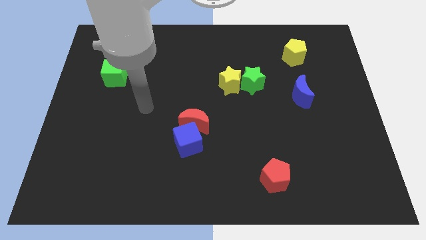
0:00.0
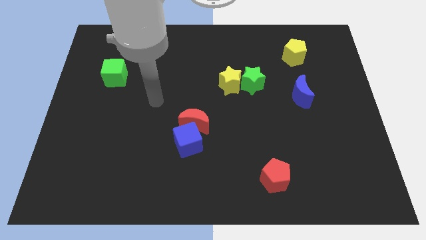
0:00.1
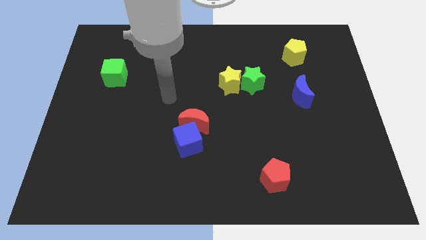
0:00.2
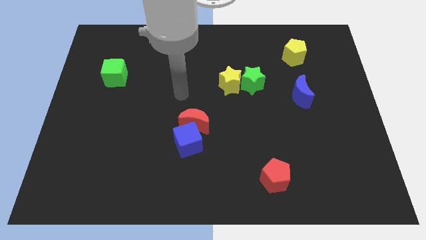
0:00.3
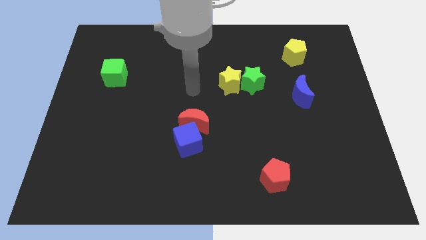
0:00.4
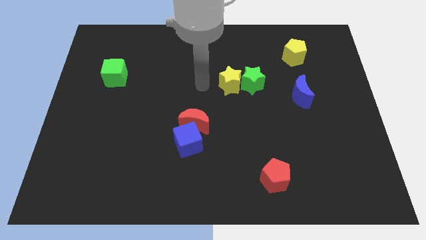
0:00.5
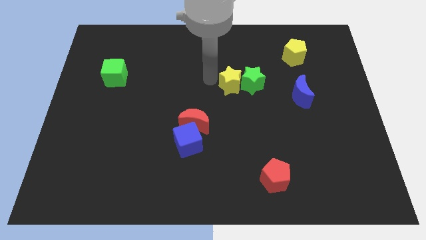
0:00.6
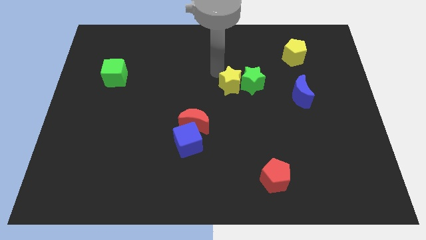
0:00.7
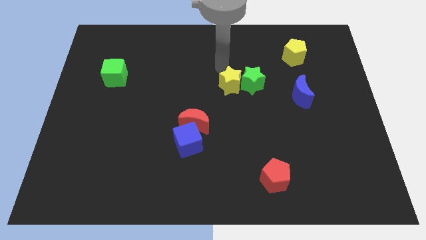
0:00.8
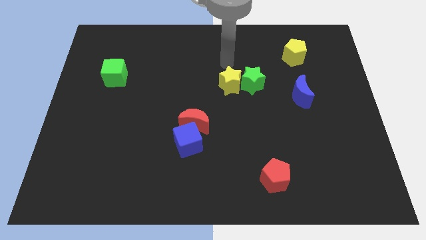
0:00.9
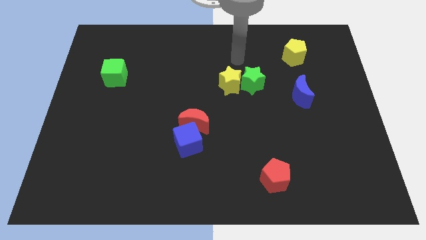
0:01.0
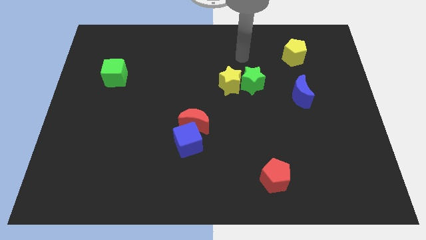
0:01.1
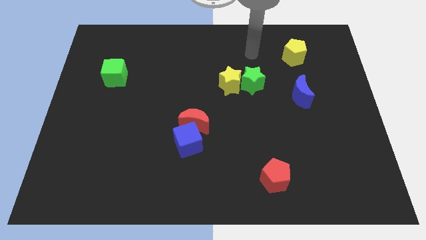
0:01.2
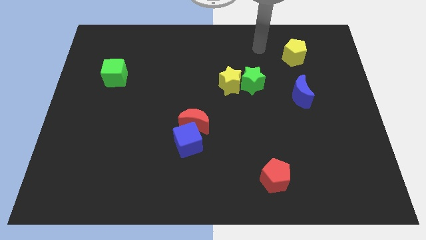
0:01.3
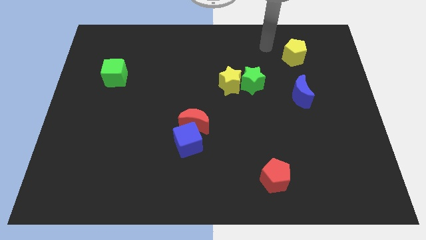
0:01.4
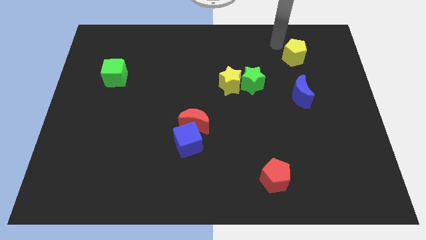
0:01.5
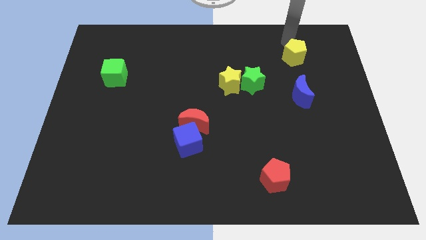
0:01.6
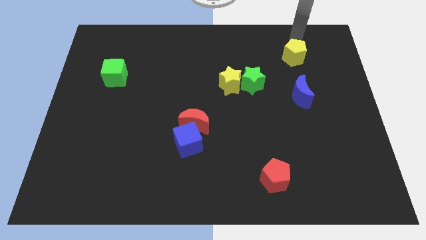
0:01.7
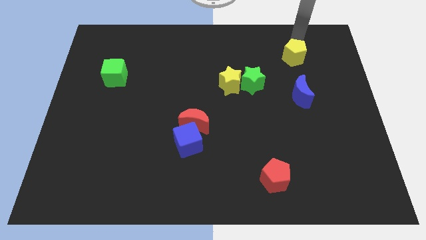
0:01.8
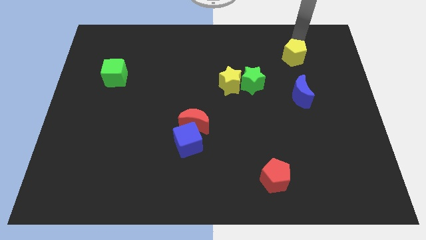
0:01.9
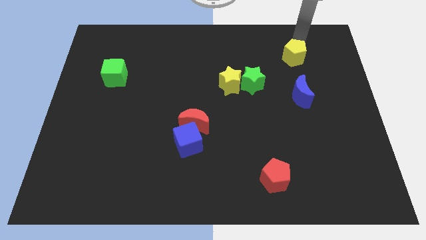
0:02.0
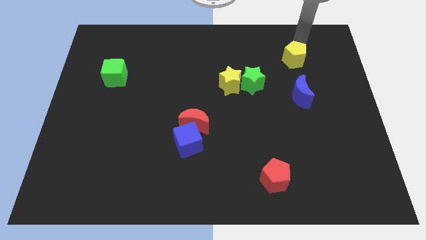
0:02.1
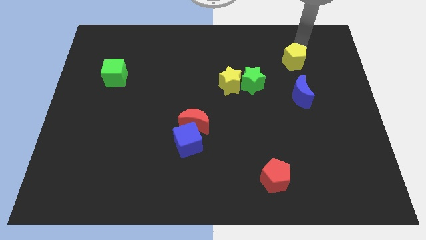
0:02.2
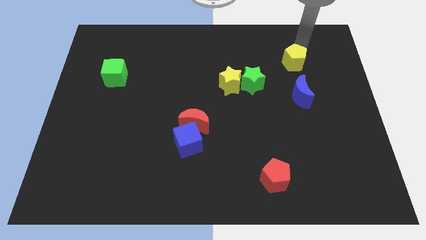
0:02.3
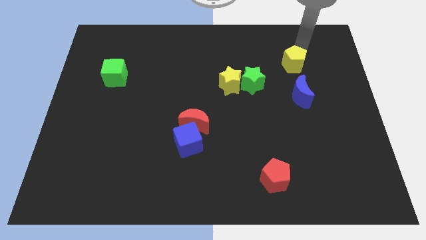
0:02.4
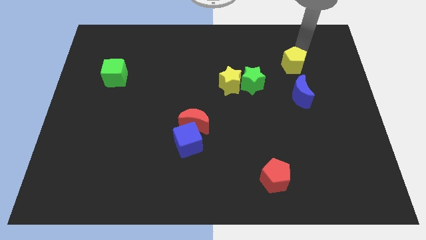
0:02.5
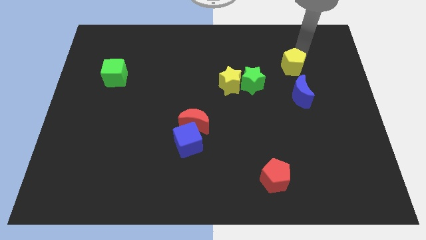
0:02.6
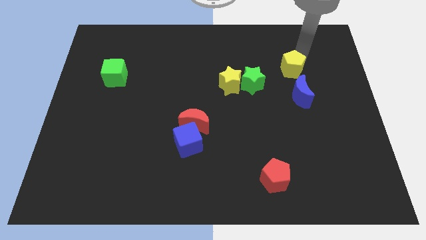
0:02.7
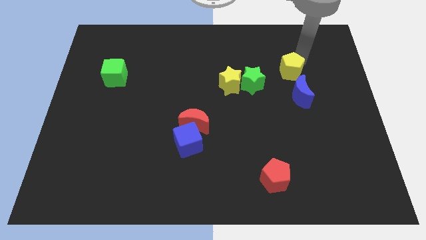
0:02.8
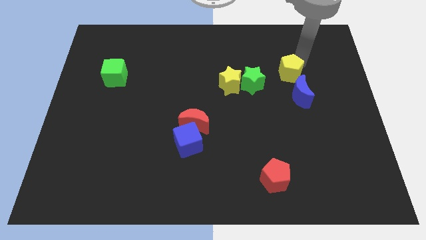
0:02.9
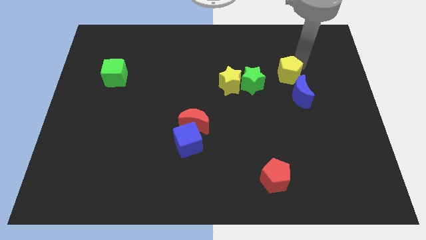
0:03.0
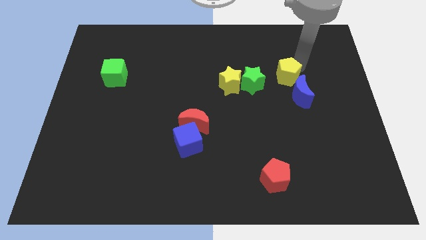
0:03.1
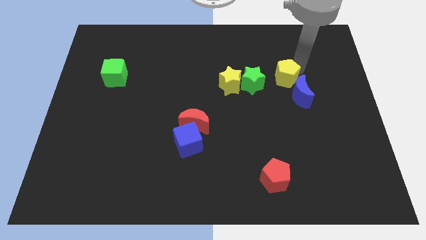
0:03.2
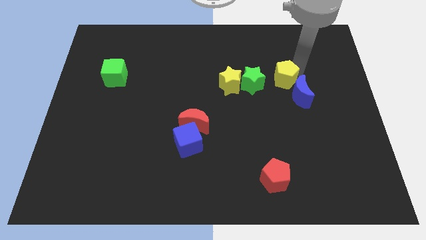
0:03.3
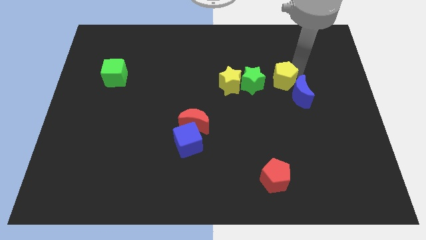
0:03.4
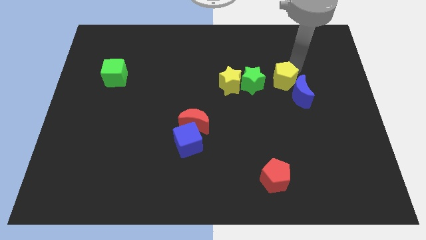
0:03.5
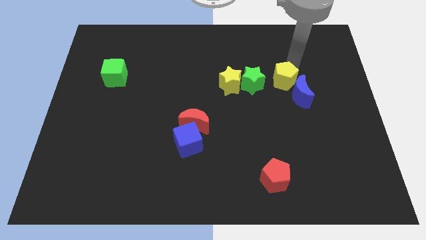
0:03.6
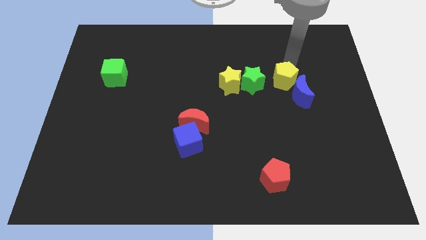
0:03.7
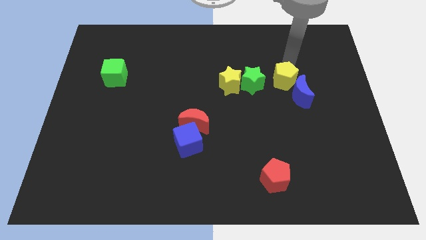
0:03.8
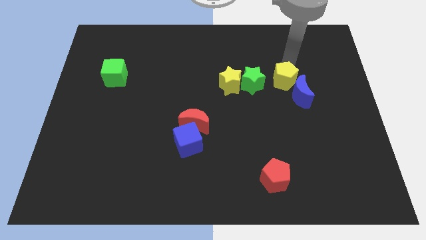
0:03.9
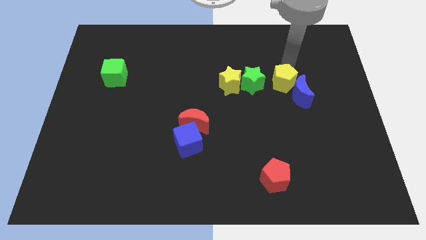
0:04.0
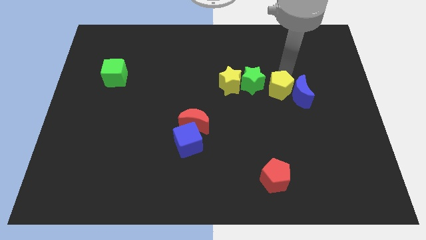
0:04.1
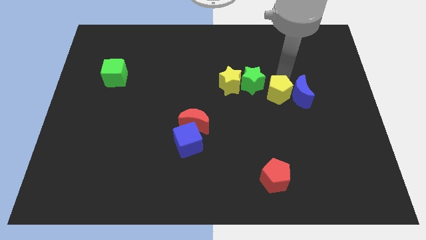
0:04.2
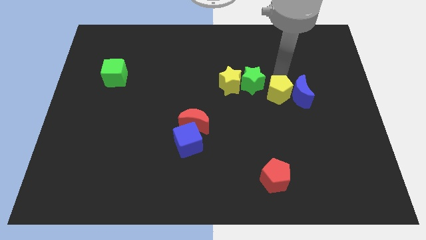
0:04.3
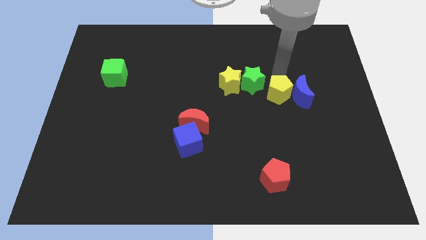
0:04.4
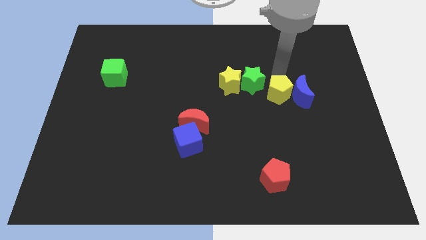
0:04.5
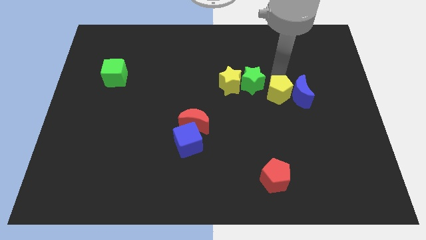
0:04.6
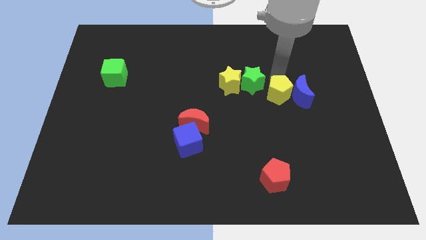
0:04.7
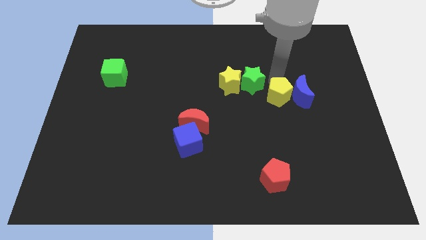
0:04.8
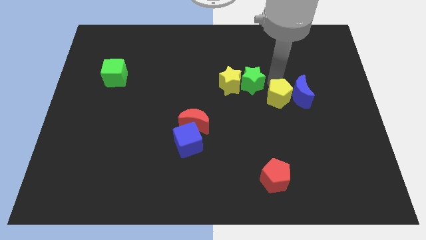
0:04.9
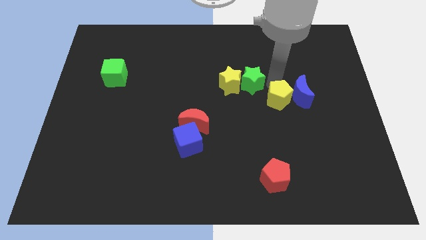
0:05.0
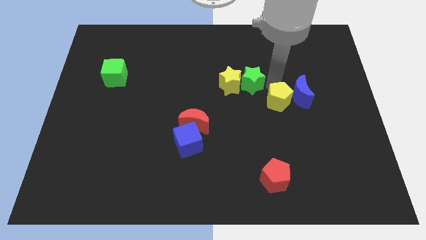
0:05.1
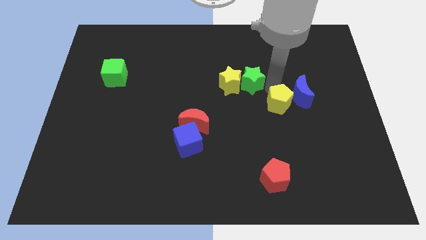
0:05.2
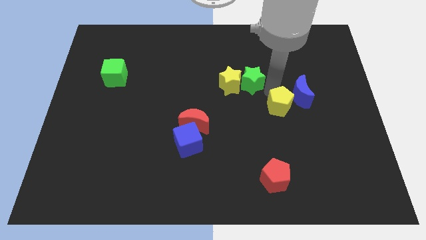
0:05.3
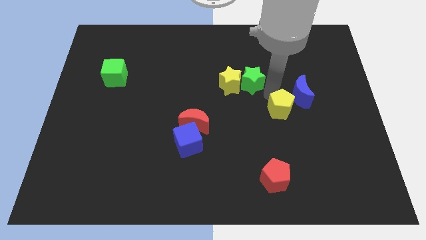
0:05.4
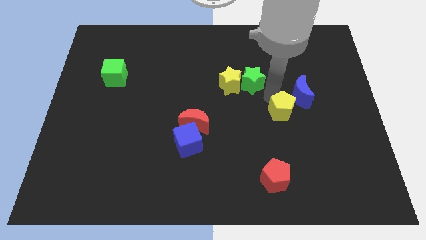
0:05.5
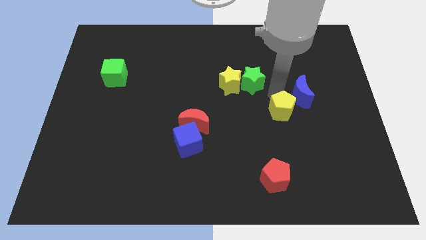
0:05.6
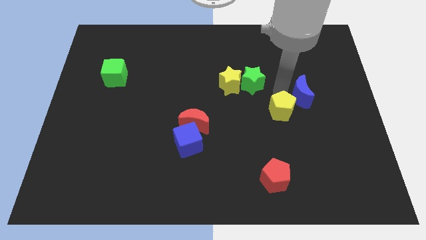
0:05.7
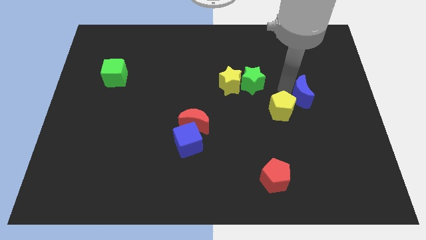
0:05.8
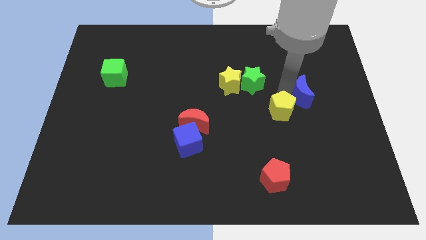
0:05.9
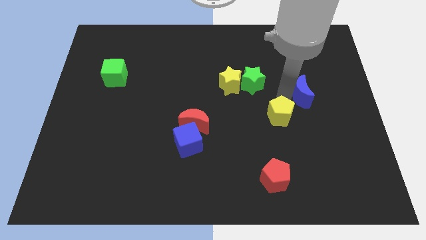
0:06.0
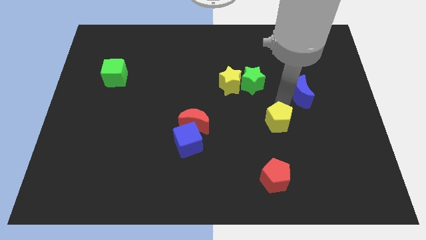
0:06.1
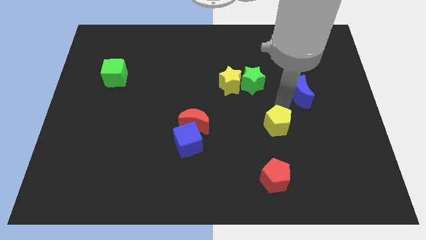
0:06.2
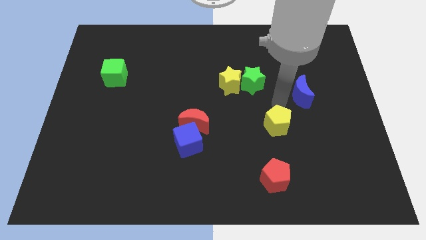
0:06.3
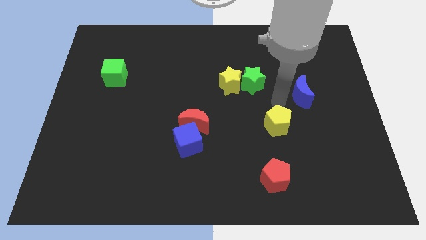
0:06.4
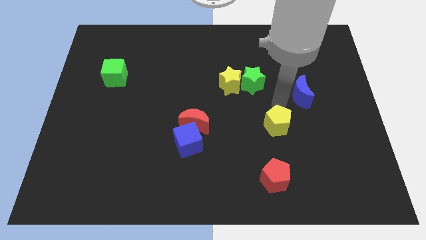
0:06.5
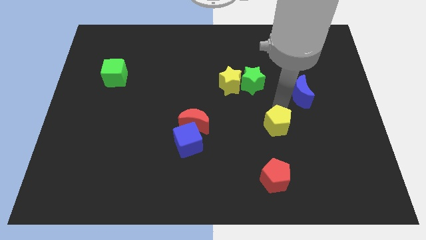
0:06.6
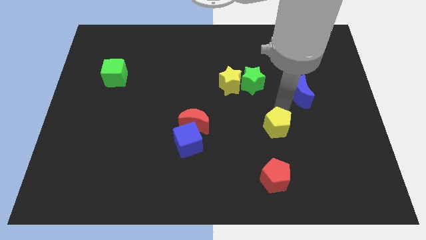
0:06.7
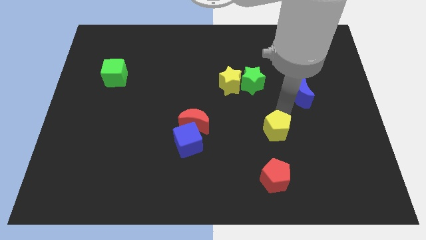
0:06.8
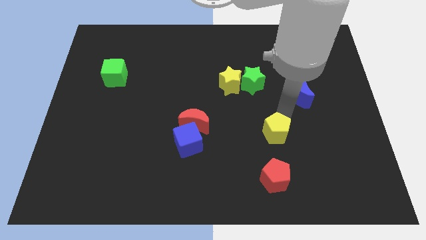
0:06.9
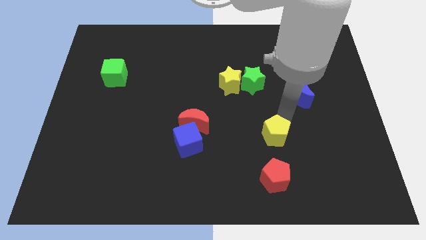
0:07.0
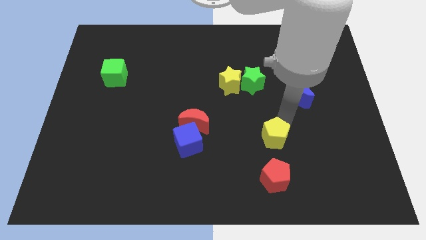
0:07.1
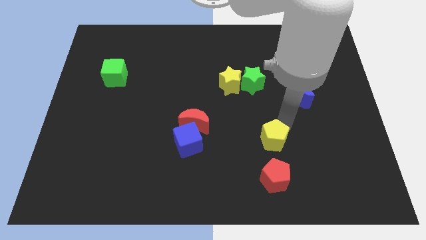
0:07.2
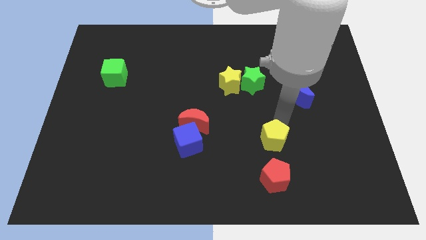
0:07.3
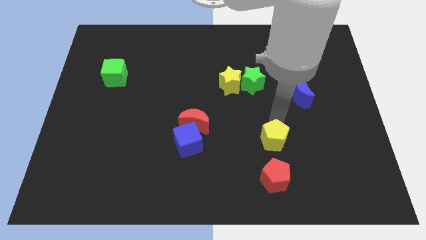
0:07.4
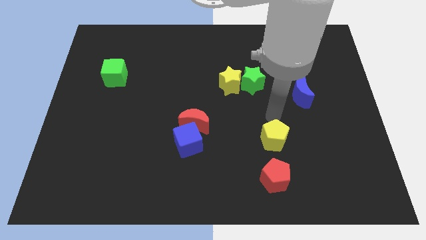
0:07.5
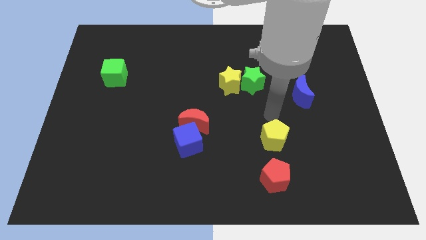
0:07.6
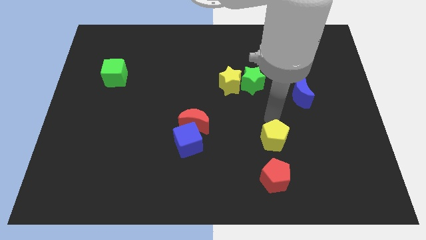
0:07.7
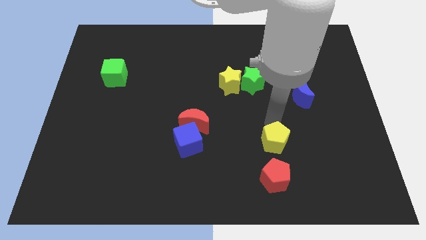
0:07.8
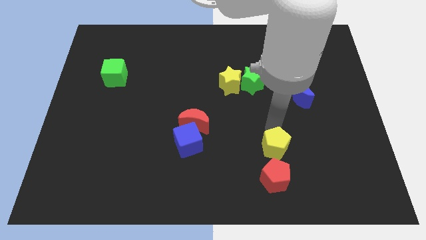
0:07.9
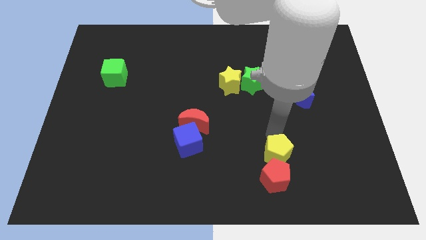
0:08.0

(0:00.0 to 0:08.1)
put the yellow pentagon close to the red pentagon
